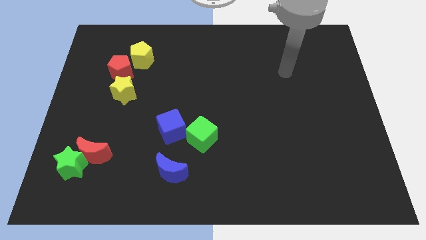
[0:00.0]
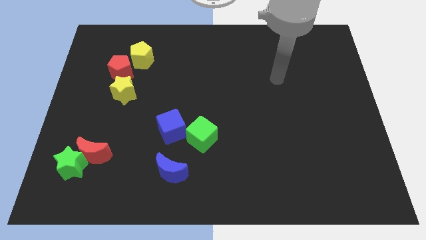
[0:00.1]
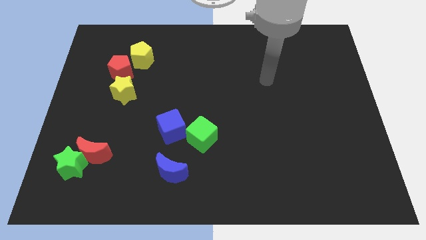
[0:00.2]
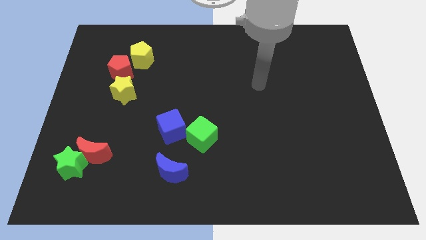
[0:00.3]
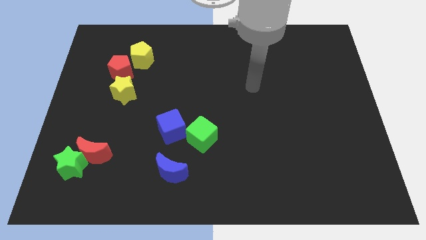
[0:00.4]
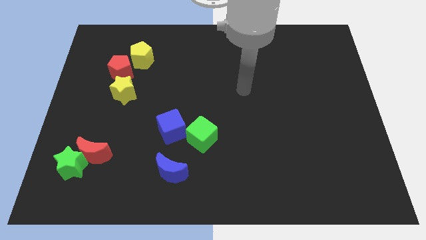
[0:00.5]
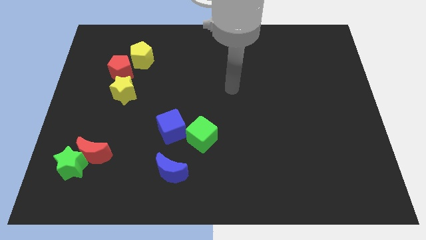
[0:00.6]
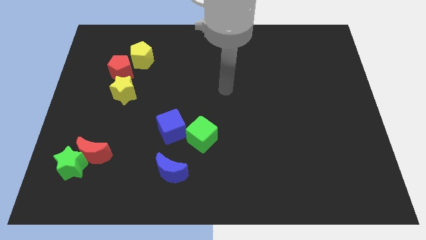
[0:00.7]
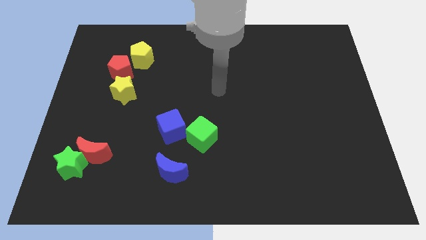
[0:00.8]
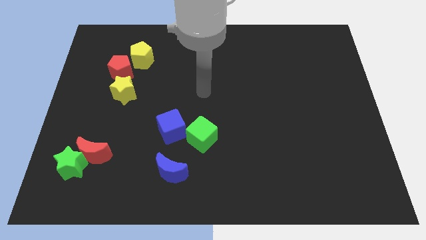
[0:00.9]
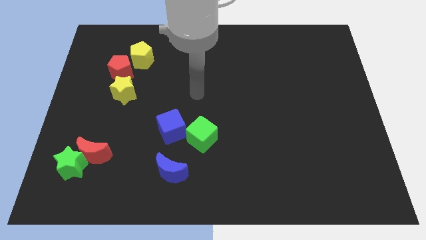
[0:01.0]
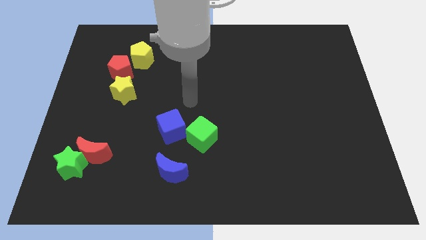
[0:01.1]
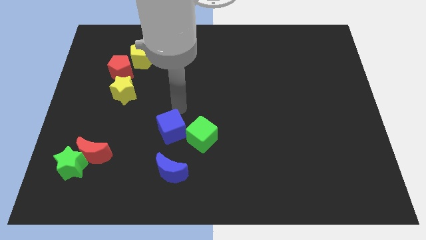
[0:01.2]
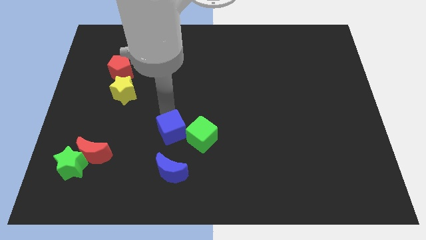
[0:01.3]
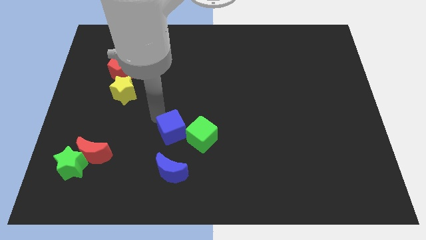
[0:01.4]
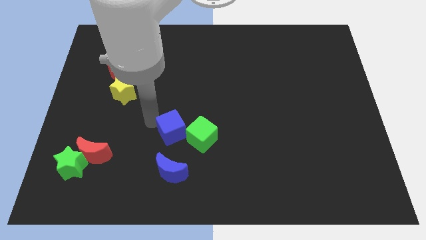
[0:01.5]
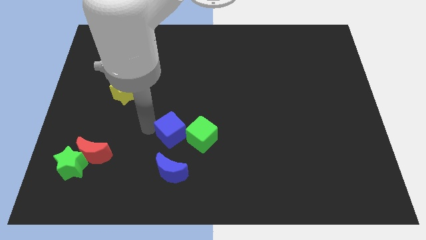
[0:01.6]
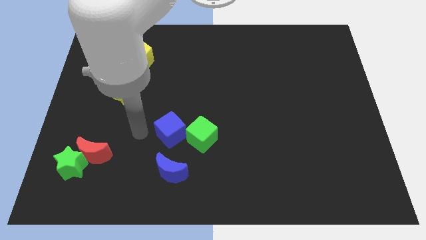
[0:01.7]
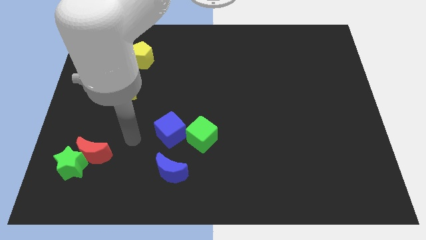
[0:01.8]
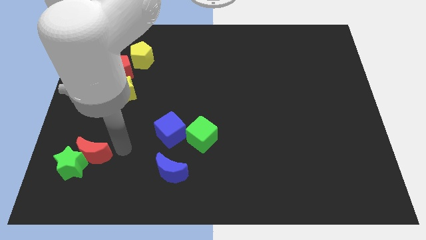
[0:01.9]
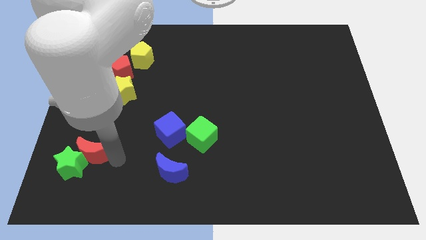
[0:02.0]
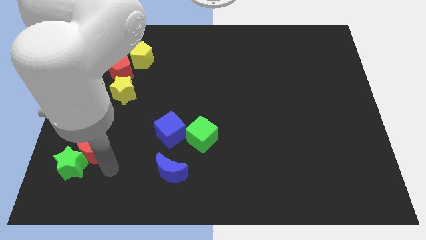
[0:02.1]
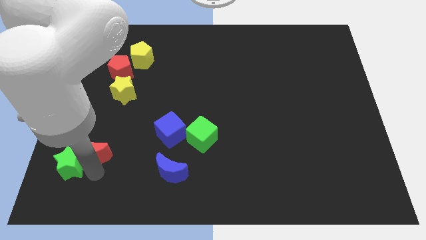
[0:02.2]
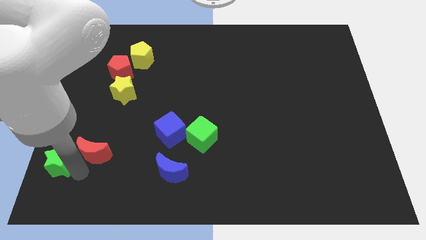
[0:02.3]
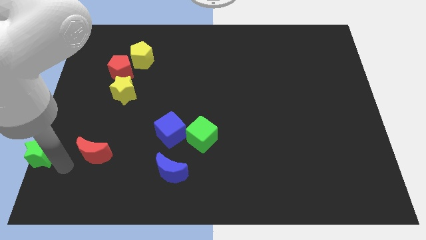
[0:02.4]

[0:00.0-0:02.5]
move the red moon away from the green star

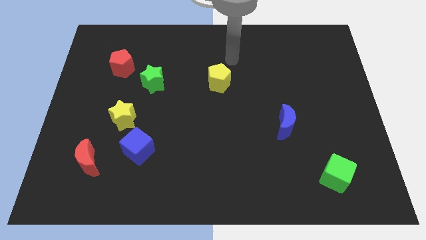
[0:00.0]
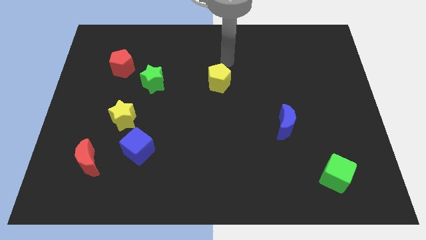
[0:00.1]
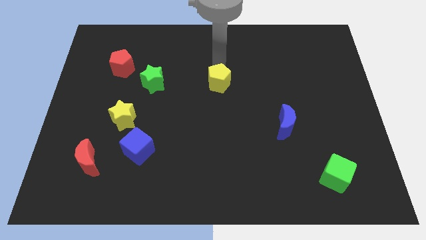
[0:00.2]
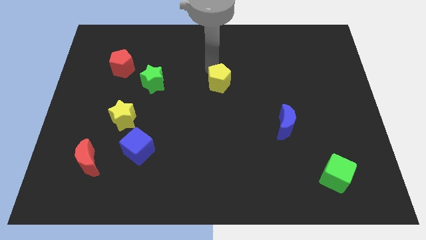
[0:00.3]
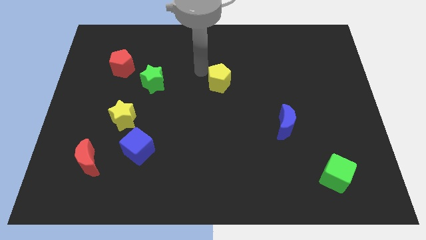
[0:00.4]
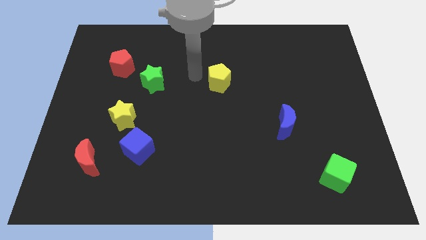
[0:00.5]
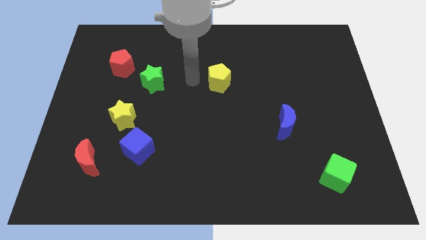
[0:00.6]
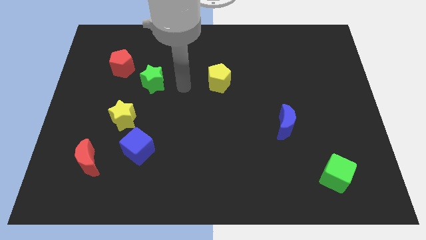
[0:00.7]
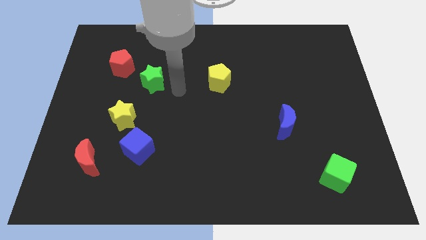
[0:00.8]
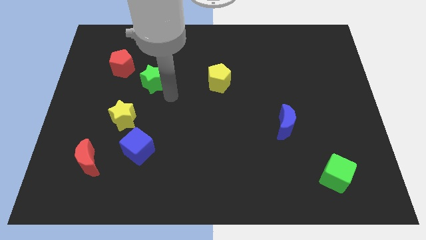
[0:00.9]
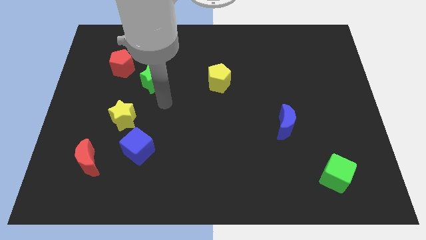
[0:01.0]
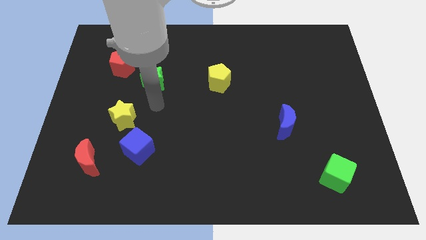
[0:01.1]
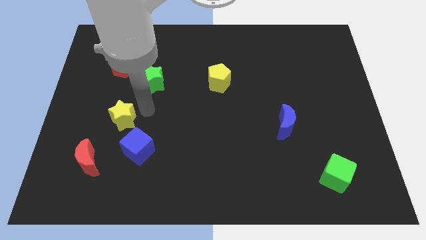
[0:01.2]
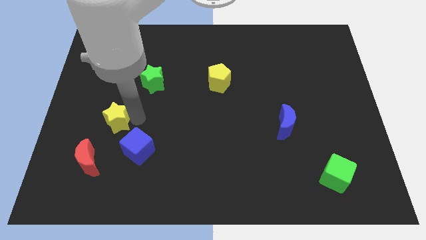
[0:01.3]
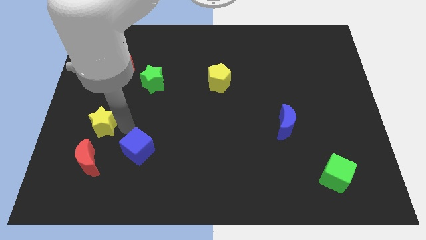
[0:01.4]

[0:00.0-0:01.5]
pull the blue cube apart from the yellow star

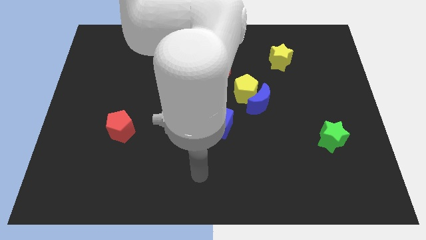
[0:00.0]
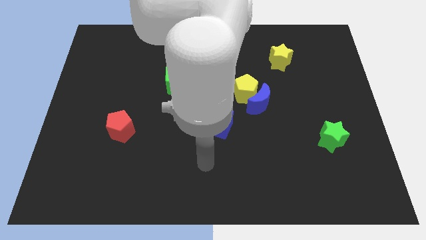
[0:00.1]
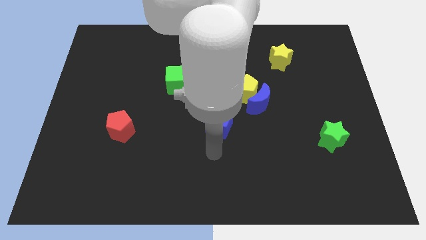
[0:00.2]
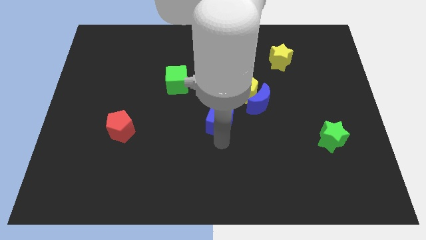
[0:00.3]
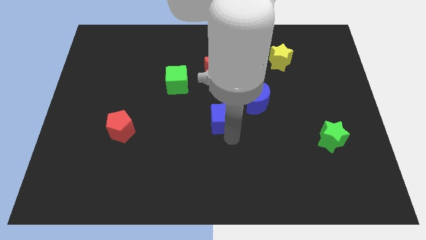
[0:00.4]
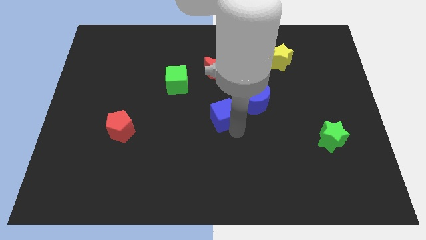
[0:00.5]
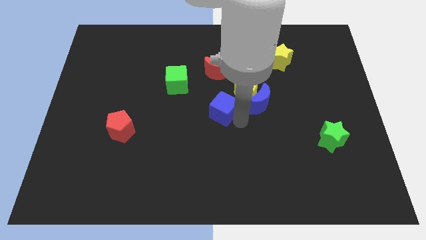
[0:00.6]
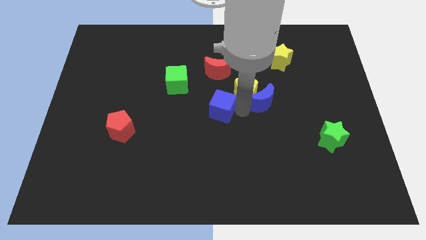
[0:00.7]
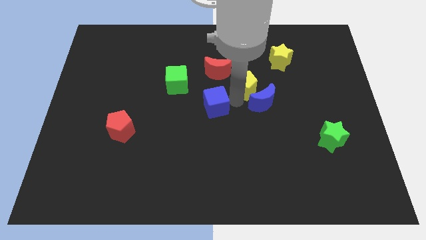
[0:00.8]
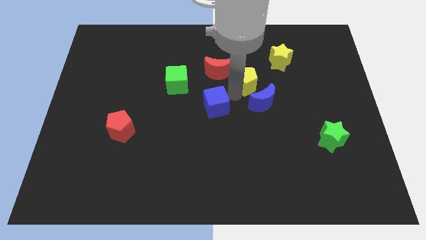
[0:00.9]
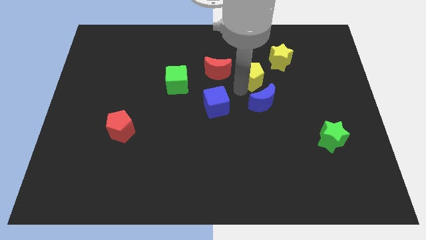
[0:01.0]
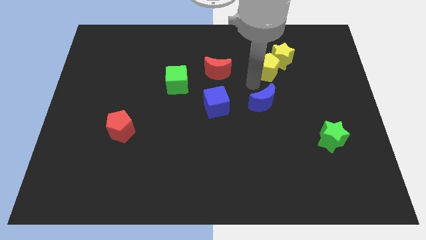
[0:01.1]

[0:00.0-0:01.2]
separate the blue moon from the yellow pentagon

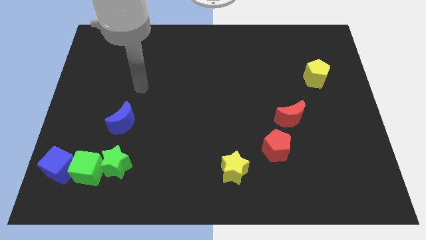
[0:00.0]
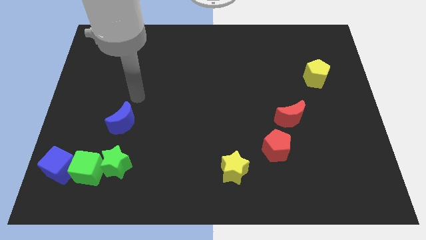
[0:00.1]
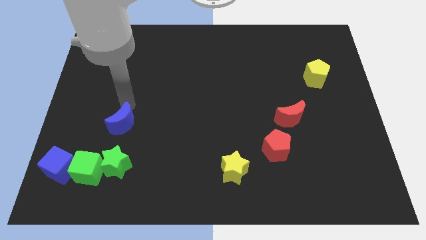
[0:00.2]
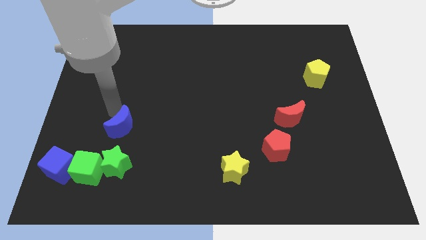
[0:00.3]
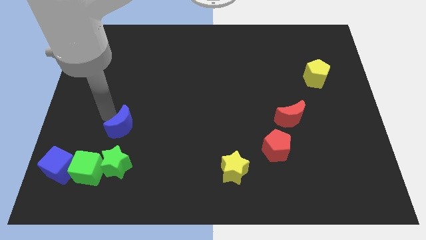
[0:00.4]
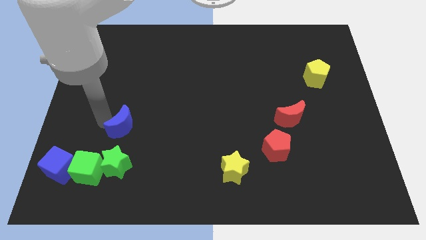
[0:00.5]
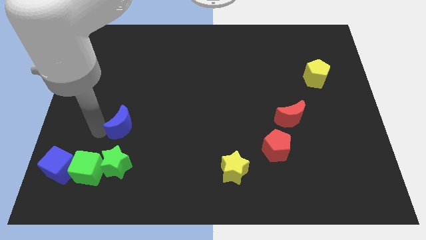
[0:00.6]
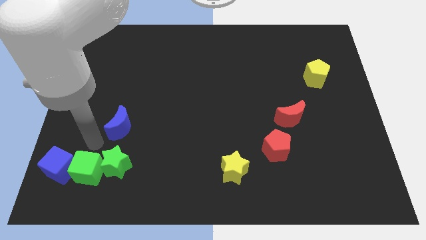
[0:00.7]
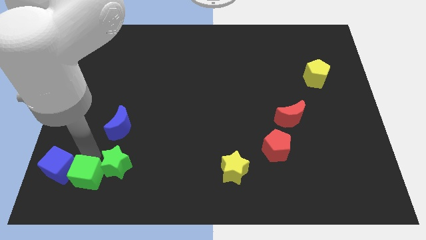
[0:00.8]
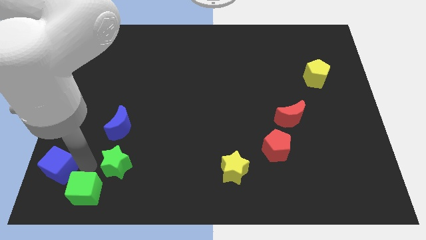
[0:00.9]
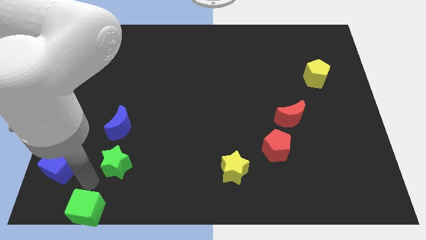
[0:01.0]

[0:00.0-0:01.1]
move the green star away from the green cube

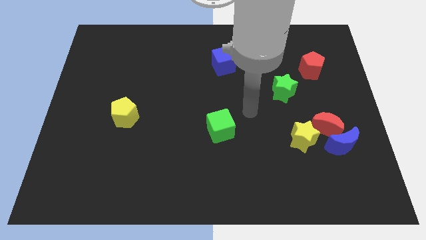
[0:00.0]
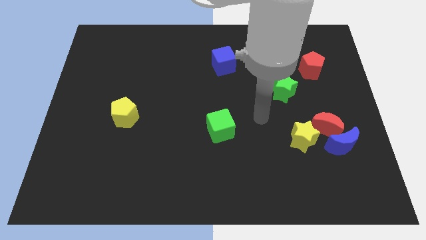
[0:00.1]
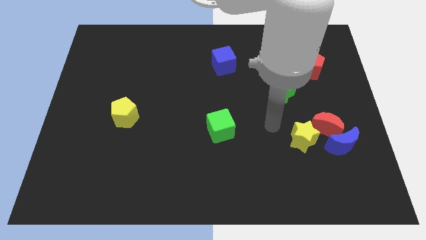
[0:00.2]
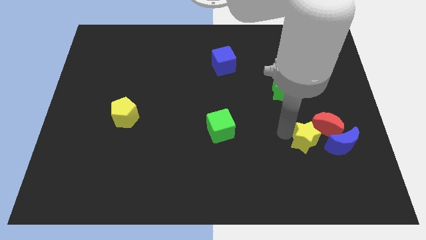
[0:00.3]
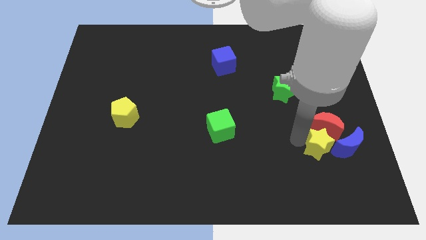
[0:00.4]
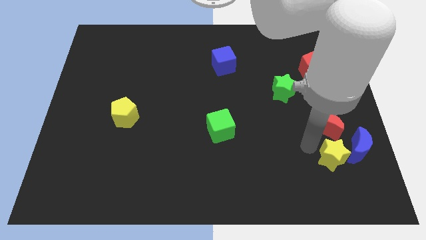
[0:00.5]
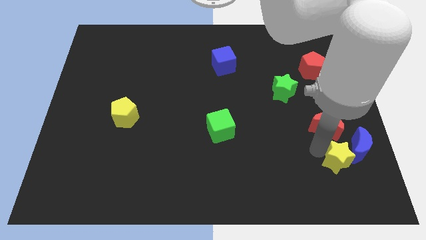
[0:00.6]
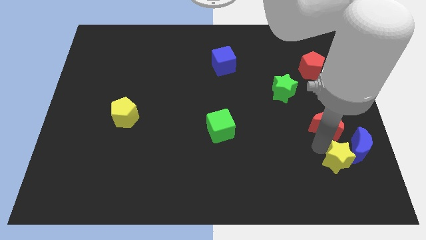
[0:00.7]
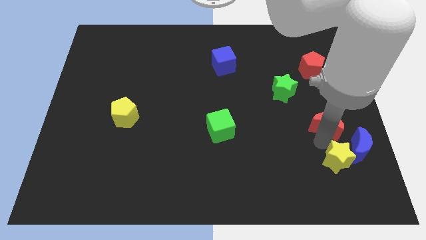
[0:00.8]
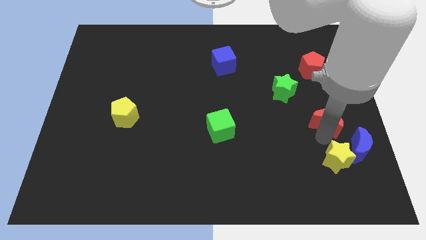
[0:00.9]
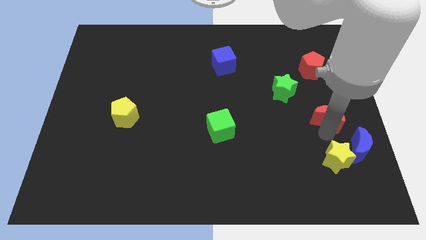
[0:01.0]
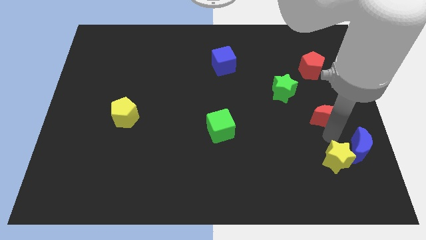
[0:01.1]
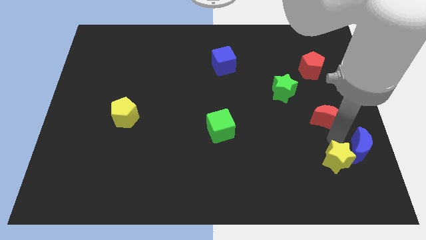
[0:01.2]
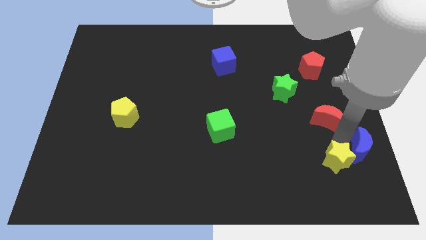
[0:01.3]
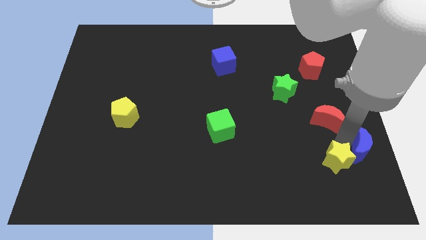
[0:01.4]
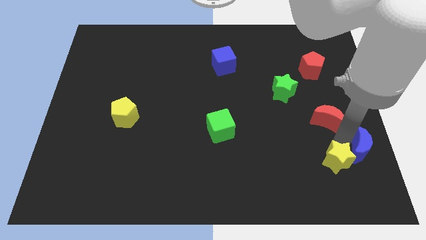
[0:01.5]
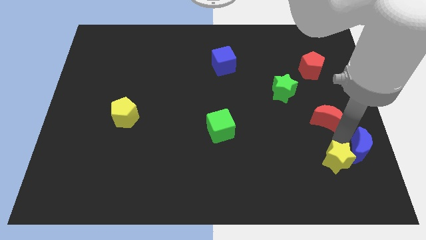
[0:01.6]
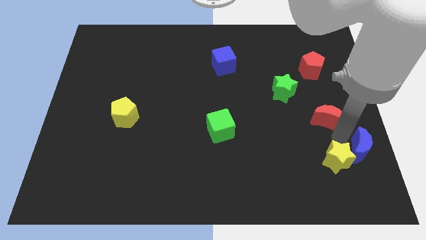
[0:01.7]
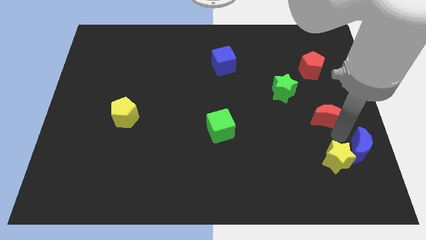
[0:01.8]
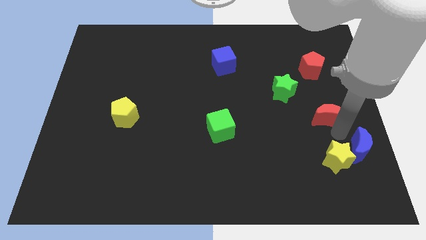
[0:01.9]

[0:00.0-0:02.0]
move the red moon away from the blue moon and yellow star

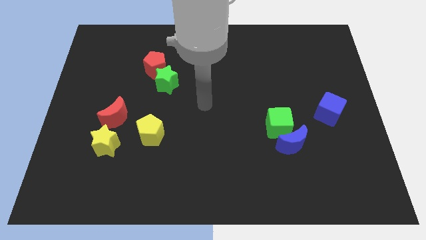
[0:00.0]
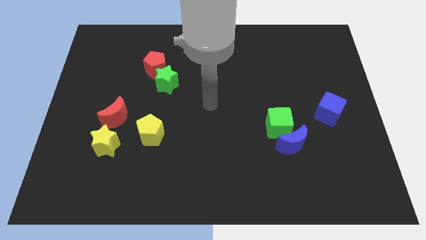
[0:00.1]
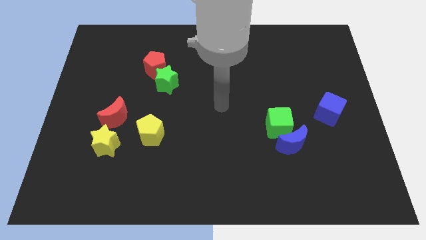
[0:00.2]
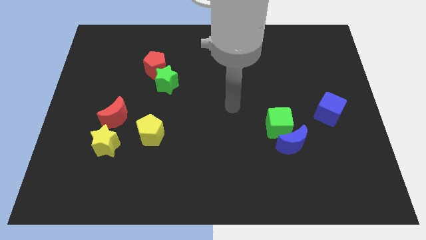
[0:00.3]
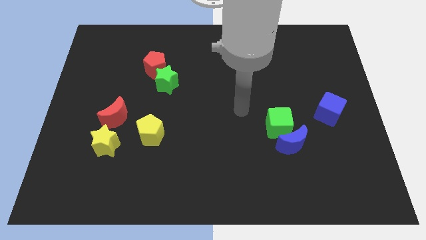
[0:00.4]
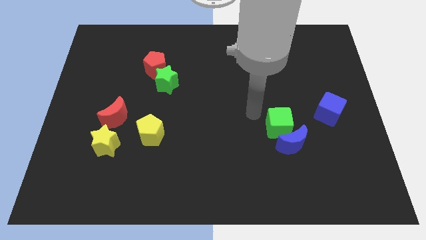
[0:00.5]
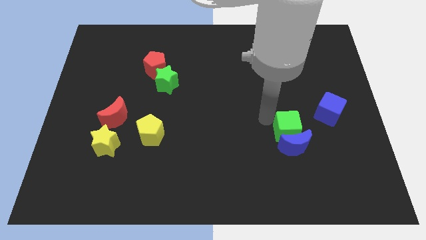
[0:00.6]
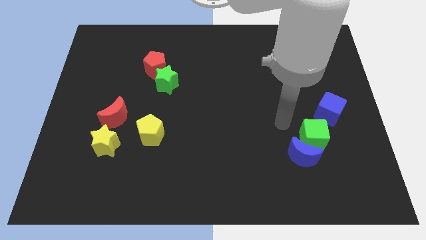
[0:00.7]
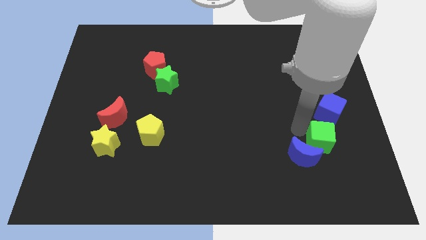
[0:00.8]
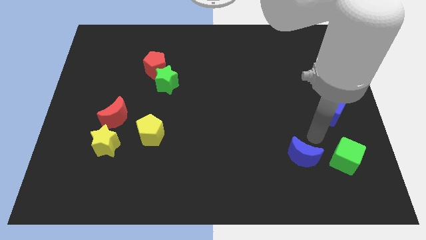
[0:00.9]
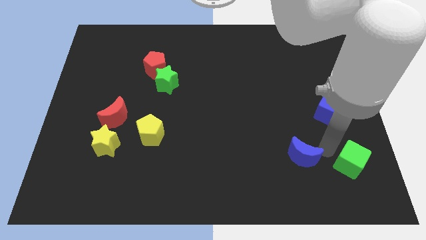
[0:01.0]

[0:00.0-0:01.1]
pull the blue moon apart from the green cube
